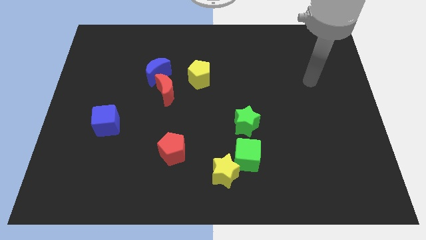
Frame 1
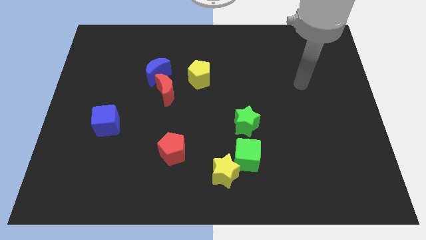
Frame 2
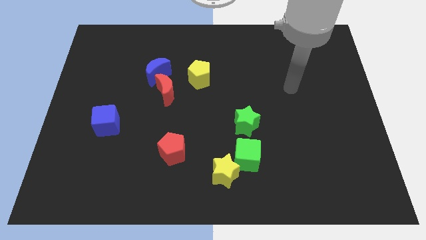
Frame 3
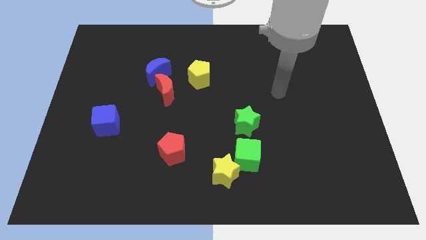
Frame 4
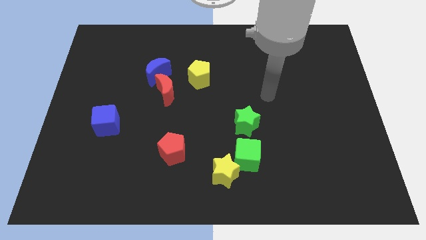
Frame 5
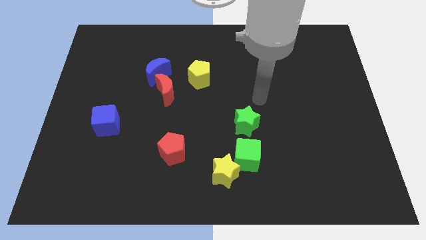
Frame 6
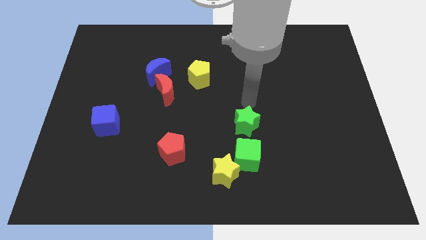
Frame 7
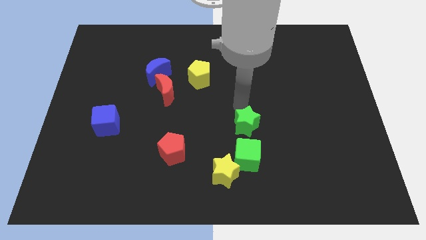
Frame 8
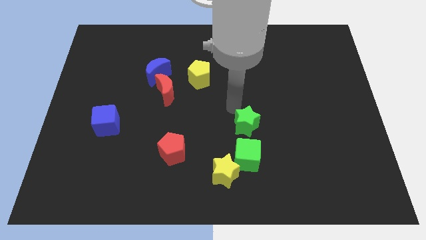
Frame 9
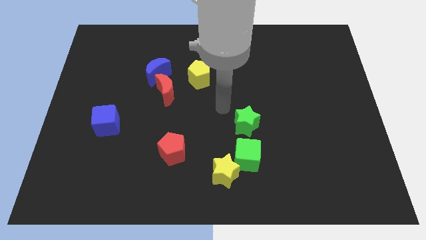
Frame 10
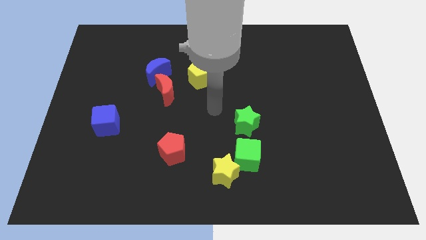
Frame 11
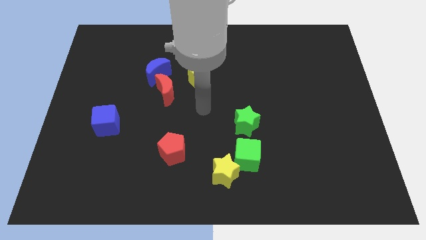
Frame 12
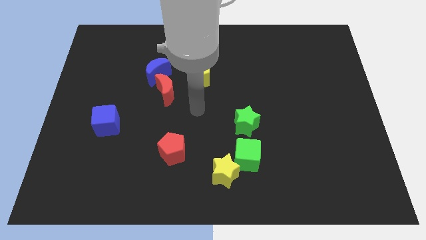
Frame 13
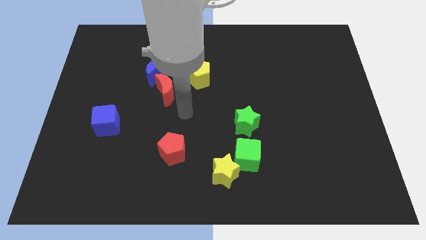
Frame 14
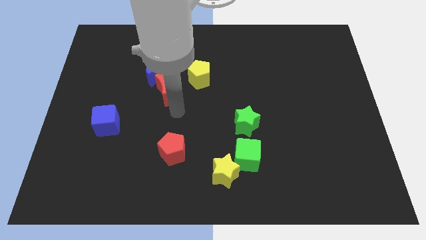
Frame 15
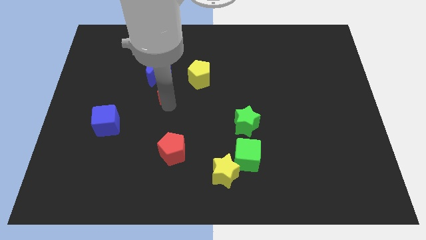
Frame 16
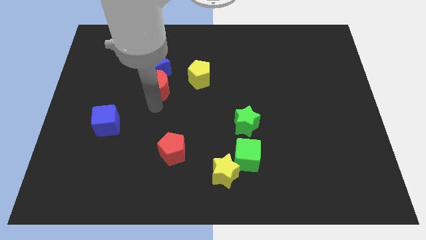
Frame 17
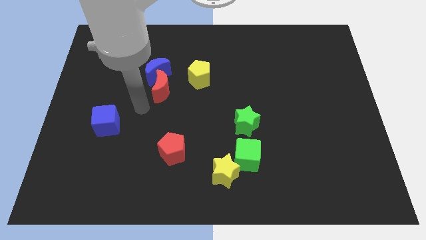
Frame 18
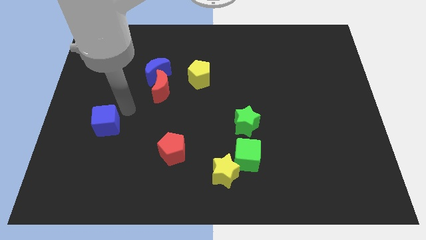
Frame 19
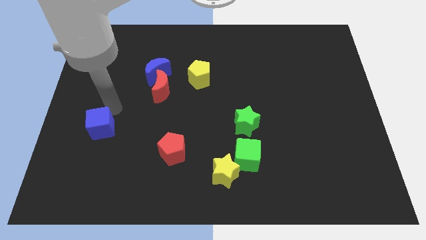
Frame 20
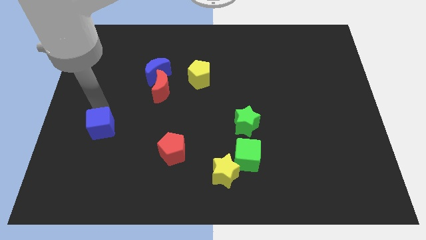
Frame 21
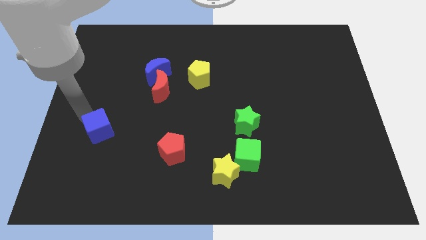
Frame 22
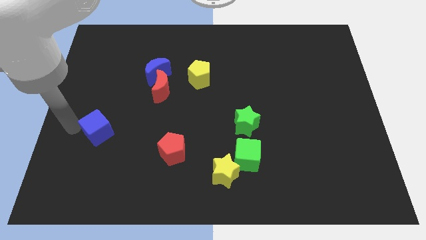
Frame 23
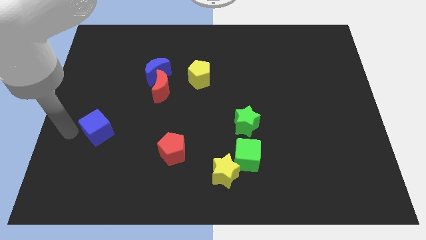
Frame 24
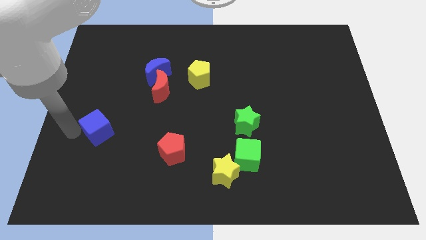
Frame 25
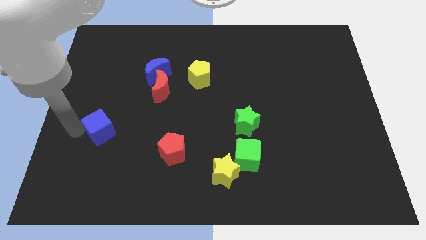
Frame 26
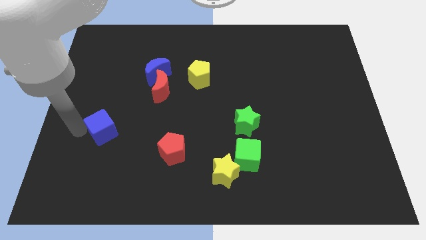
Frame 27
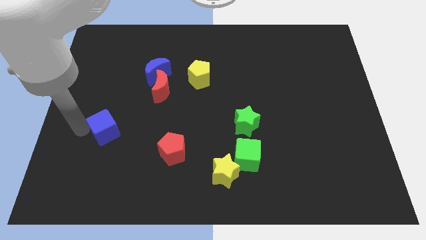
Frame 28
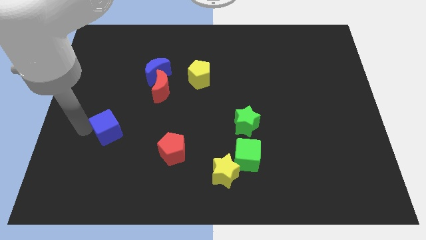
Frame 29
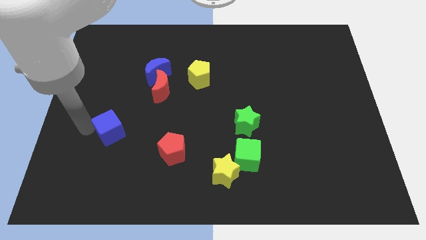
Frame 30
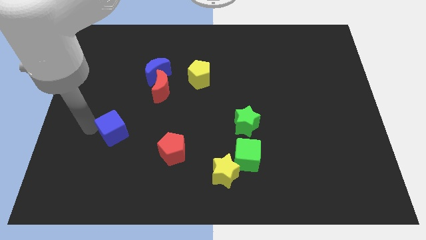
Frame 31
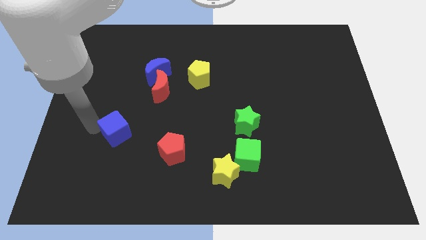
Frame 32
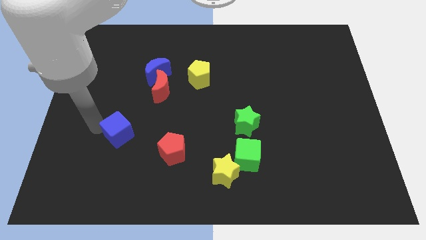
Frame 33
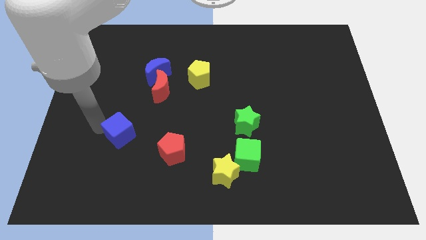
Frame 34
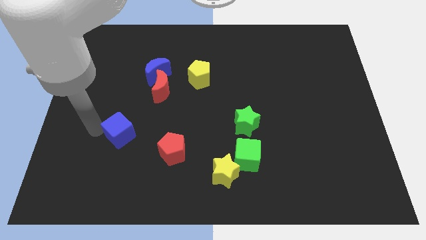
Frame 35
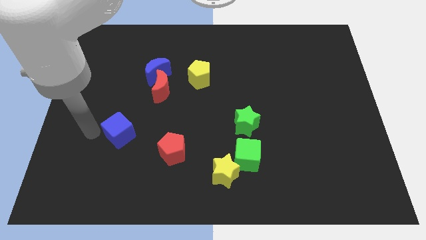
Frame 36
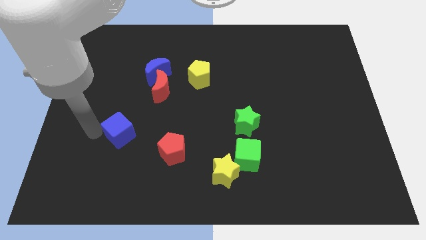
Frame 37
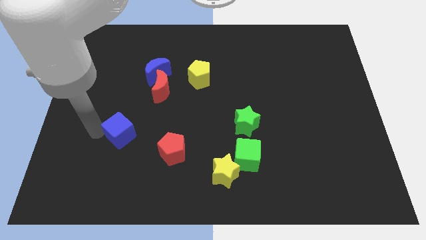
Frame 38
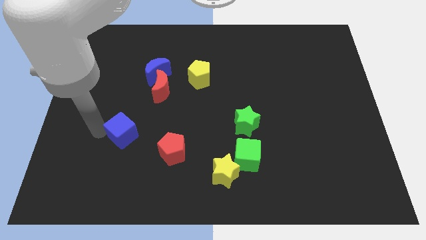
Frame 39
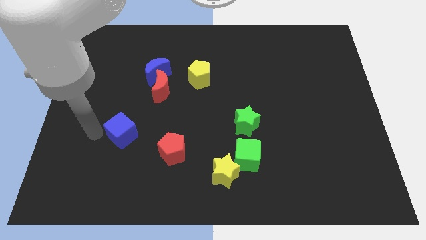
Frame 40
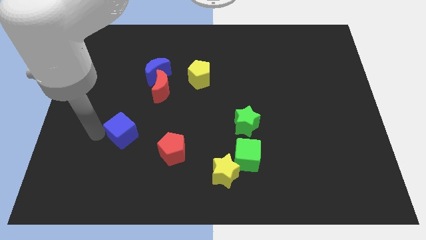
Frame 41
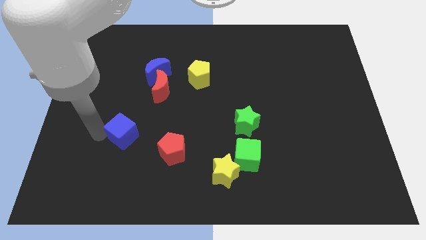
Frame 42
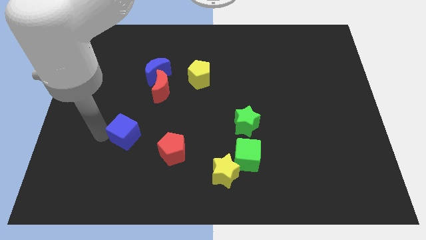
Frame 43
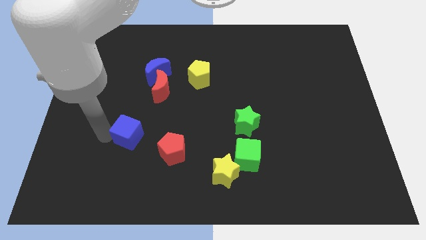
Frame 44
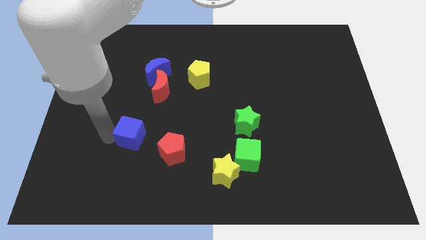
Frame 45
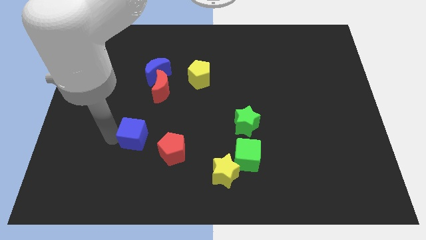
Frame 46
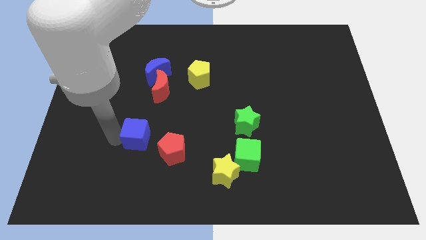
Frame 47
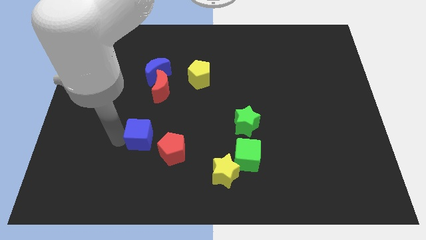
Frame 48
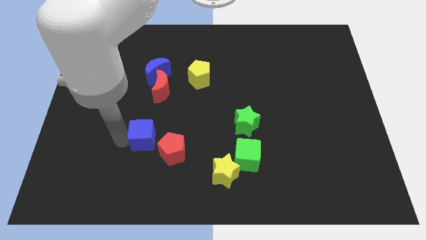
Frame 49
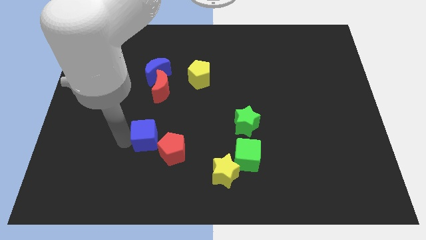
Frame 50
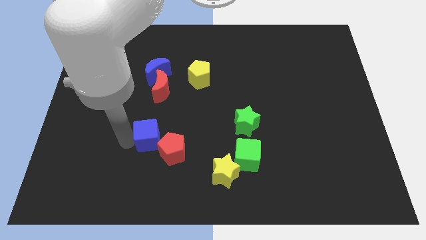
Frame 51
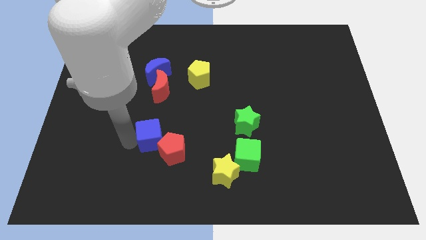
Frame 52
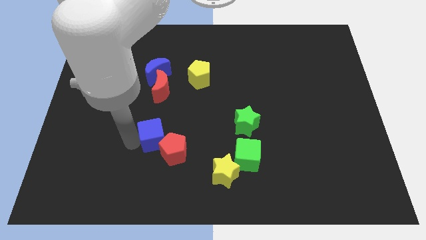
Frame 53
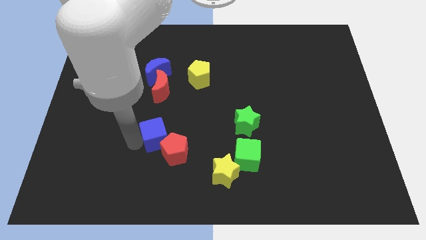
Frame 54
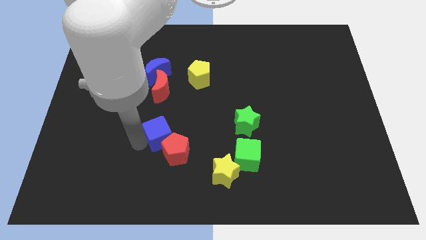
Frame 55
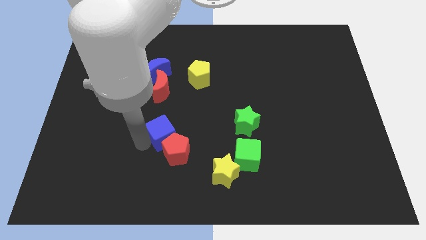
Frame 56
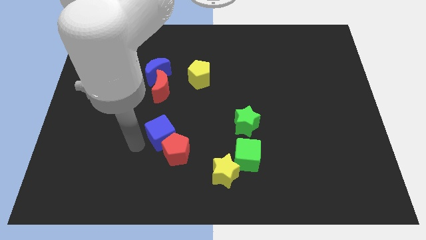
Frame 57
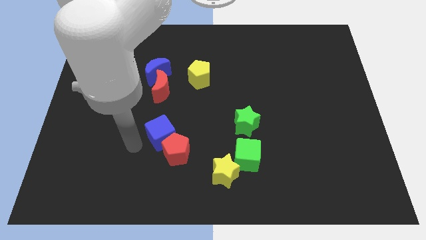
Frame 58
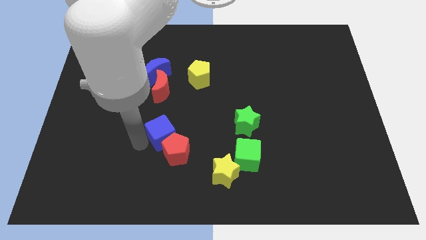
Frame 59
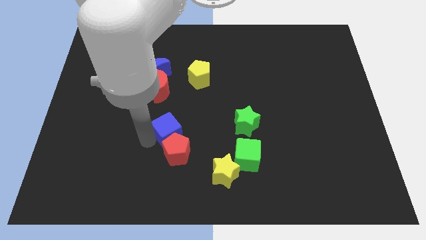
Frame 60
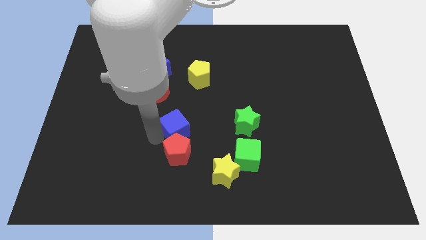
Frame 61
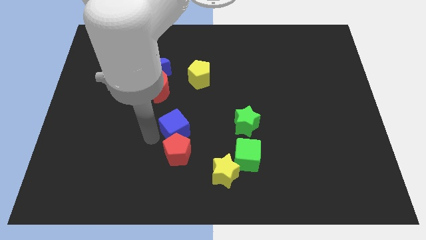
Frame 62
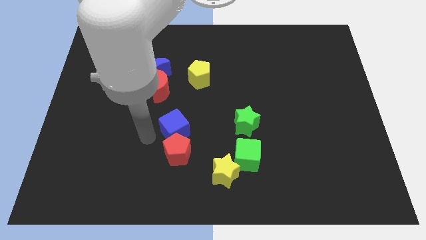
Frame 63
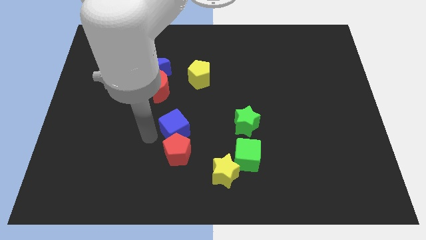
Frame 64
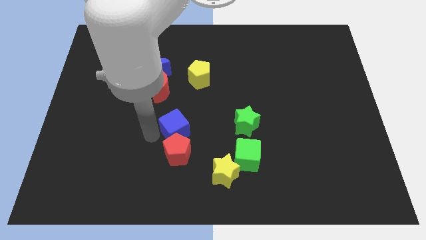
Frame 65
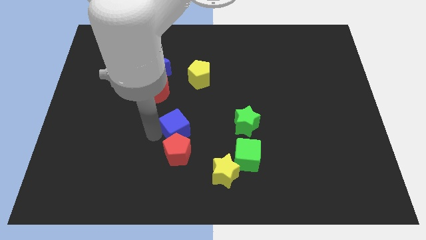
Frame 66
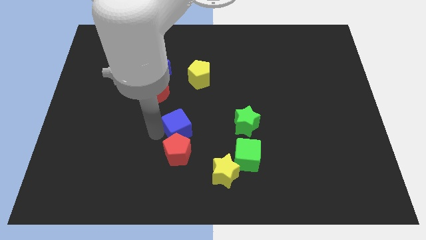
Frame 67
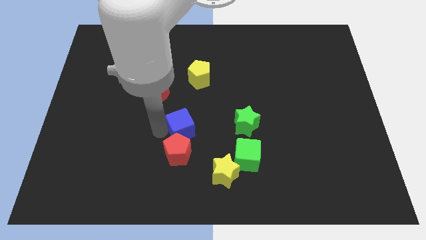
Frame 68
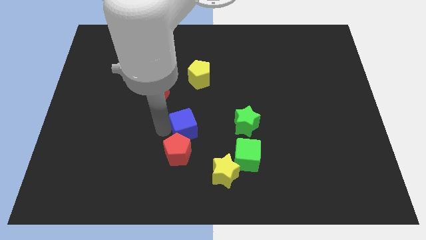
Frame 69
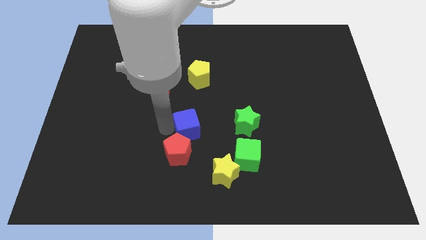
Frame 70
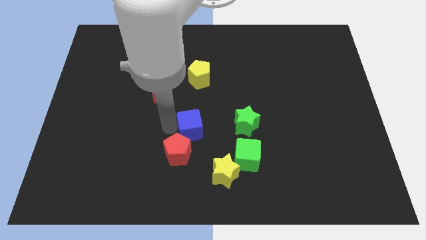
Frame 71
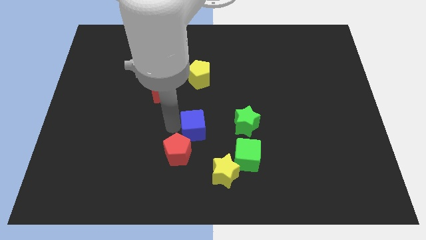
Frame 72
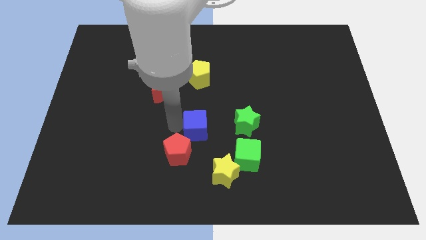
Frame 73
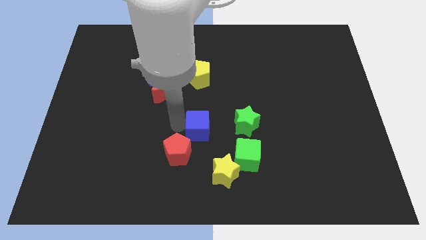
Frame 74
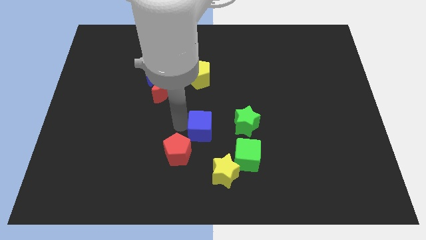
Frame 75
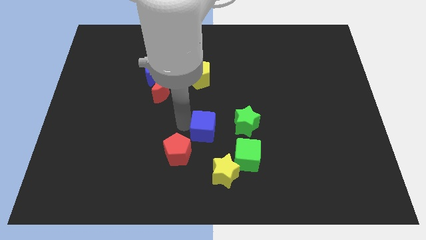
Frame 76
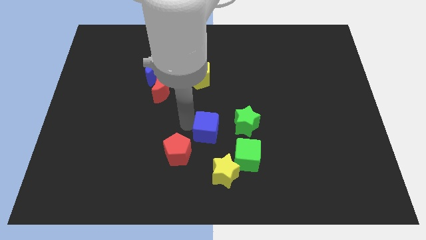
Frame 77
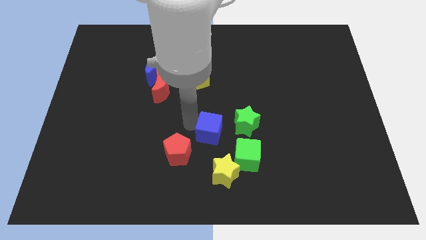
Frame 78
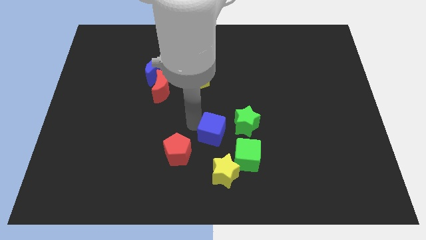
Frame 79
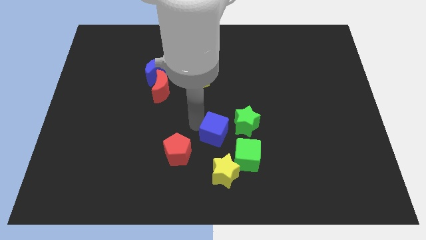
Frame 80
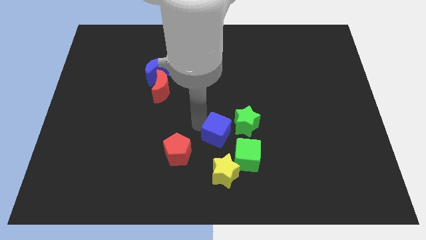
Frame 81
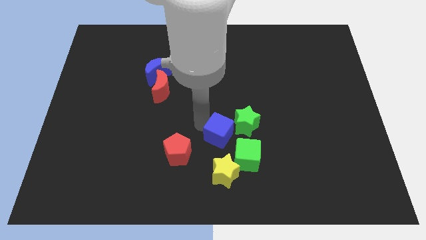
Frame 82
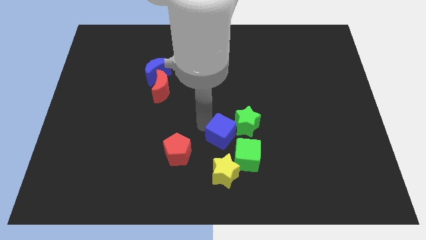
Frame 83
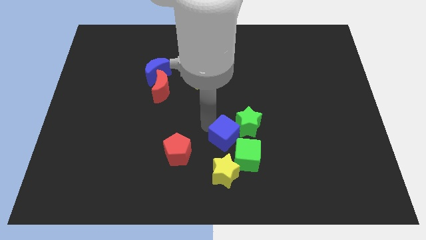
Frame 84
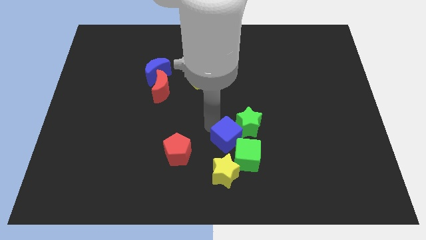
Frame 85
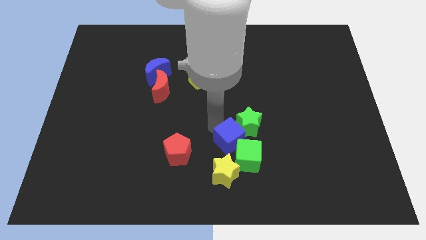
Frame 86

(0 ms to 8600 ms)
move the blue cube next to the green cube

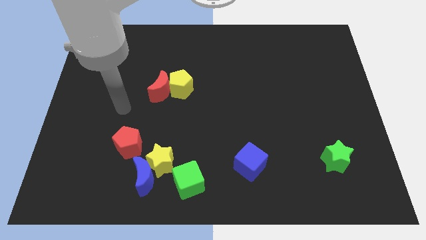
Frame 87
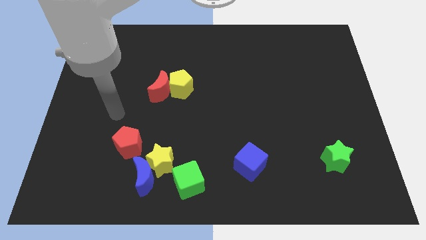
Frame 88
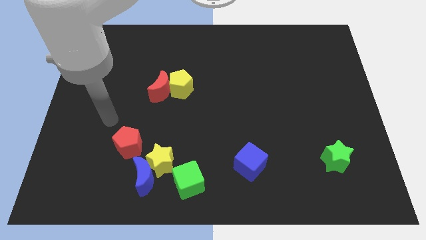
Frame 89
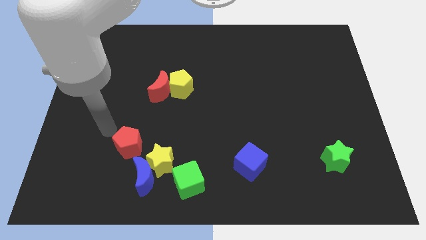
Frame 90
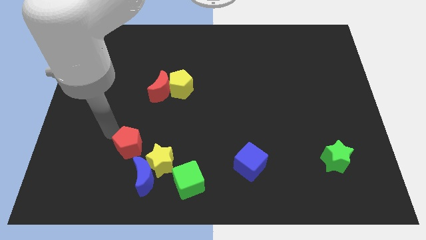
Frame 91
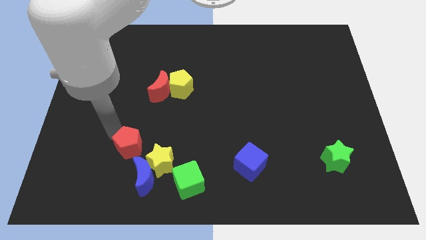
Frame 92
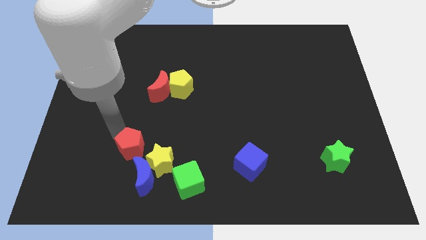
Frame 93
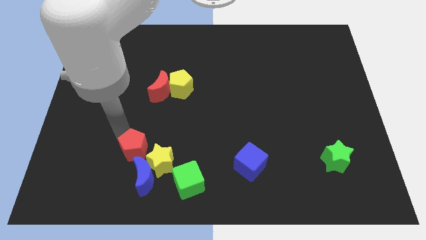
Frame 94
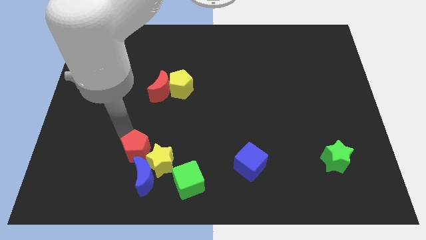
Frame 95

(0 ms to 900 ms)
push the red pentagon next to the yellow star
